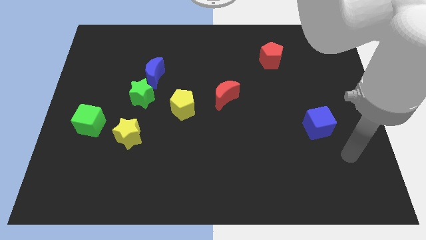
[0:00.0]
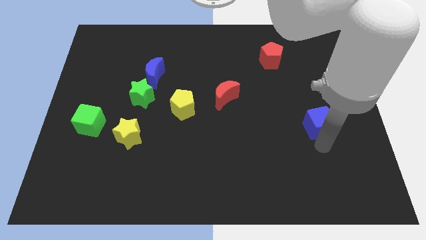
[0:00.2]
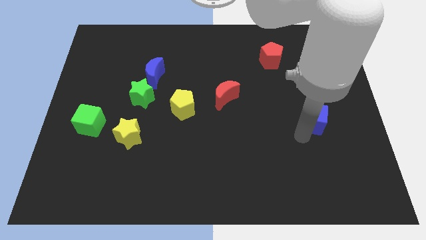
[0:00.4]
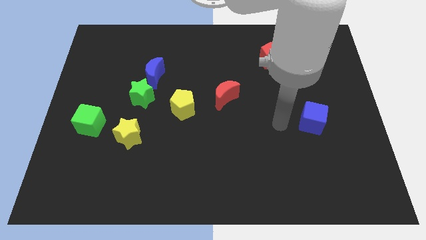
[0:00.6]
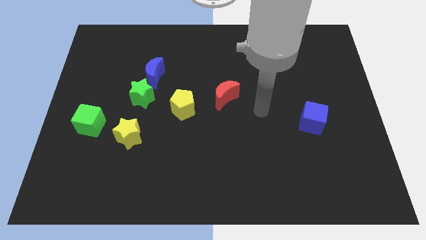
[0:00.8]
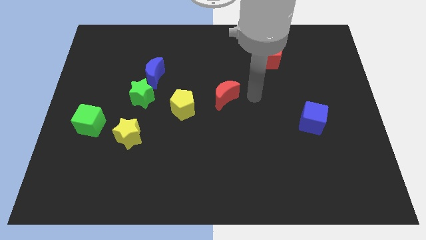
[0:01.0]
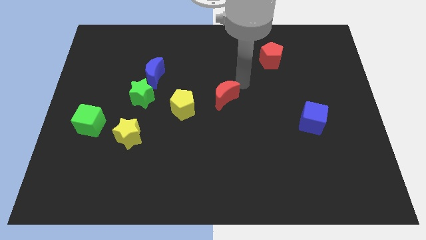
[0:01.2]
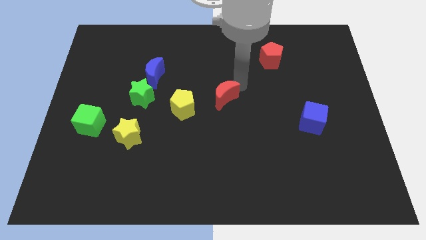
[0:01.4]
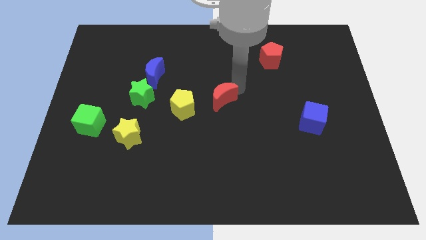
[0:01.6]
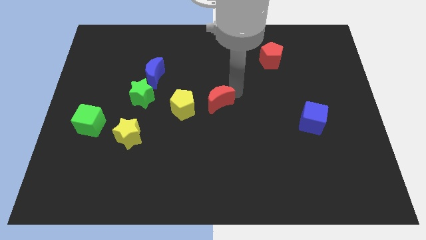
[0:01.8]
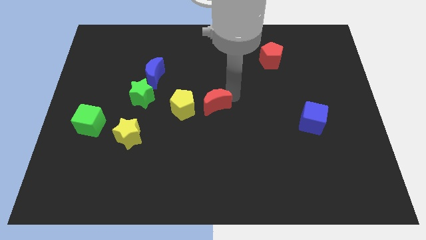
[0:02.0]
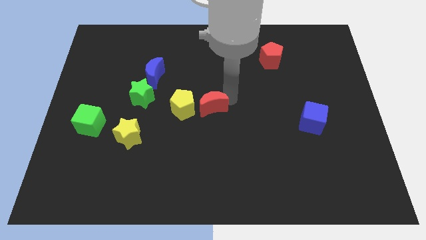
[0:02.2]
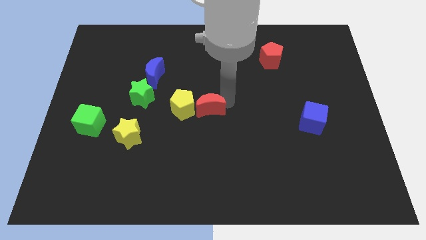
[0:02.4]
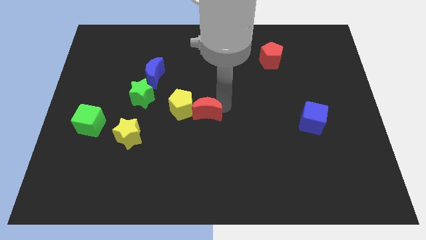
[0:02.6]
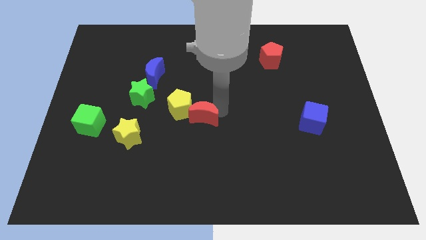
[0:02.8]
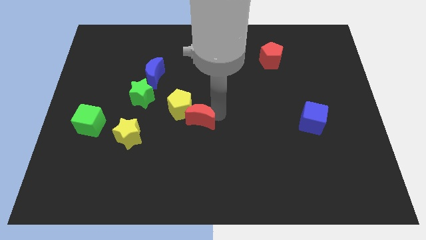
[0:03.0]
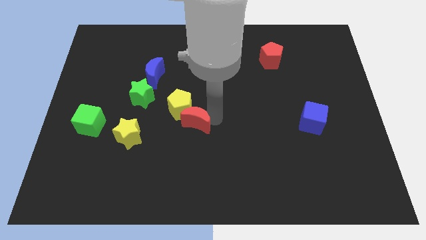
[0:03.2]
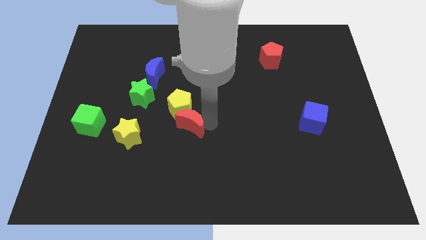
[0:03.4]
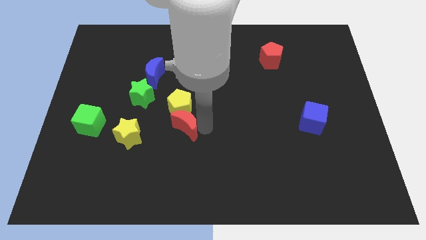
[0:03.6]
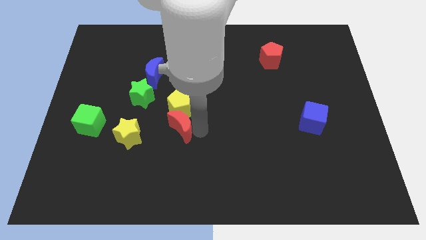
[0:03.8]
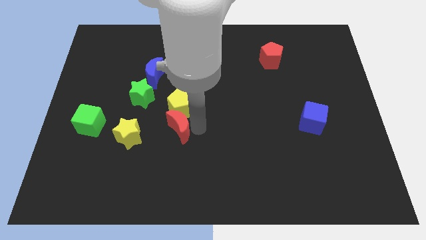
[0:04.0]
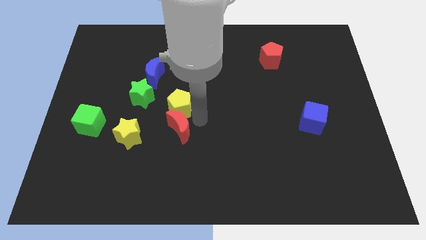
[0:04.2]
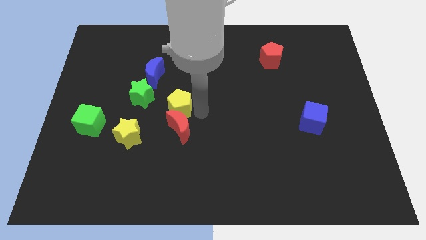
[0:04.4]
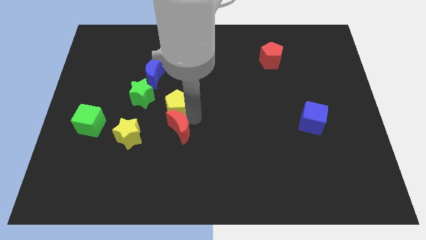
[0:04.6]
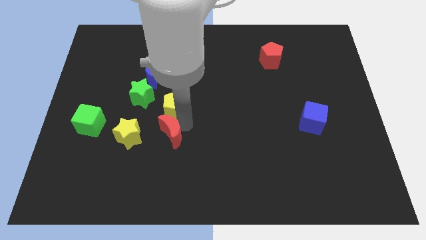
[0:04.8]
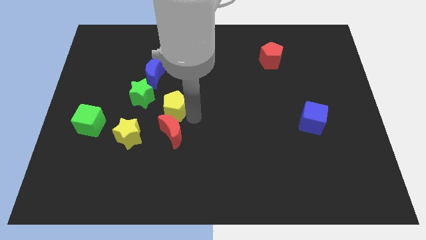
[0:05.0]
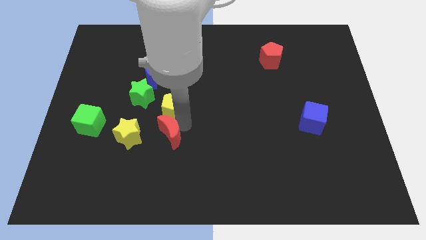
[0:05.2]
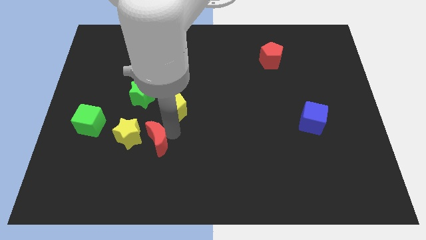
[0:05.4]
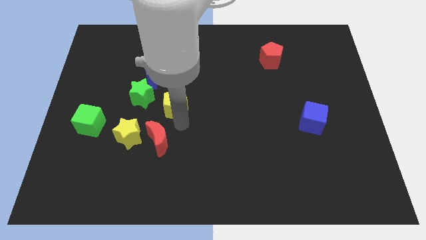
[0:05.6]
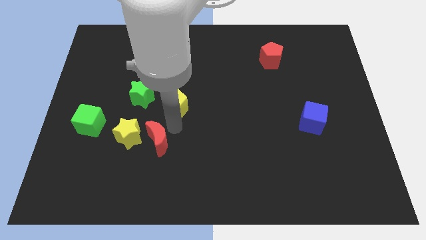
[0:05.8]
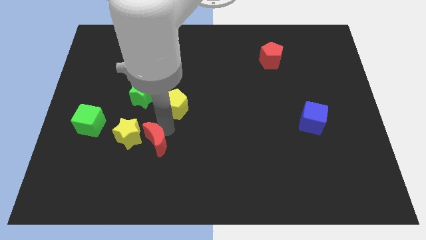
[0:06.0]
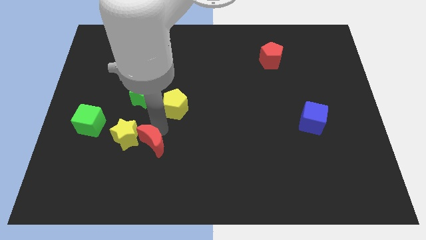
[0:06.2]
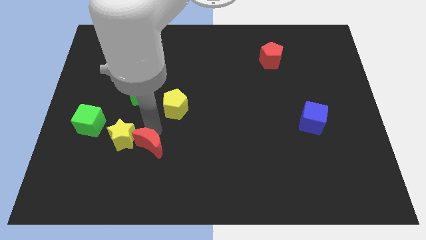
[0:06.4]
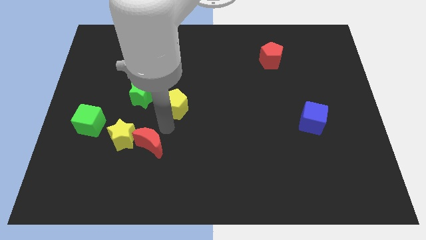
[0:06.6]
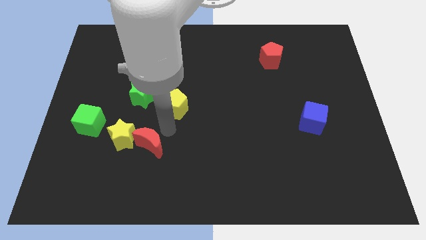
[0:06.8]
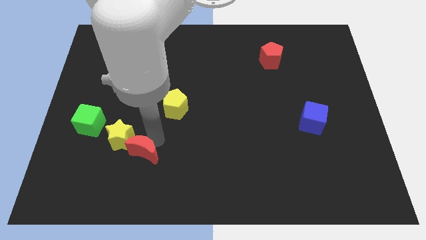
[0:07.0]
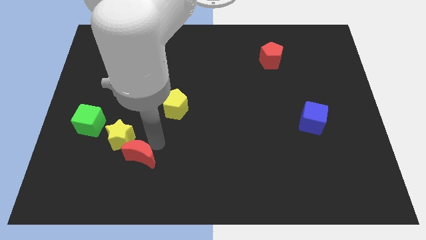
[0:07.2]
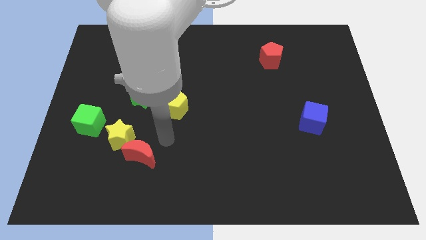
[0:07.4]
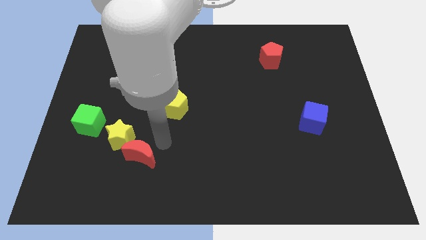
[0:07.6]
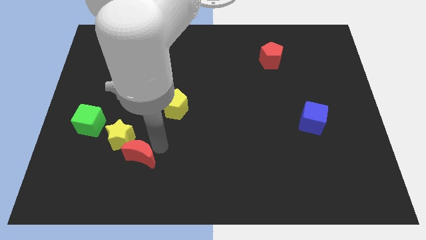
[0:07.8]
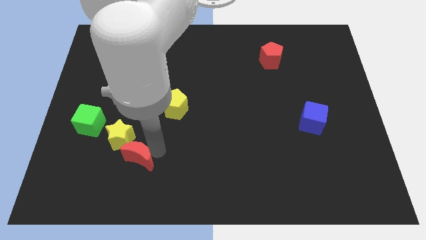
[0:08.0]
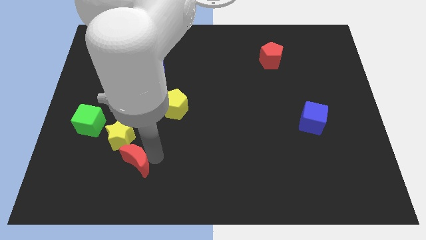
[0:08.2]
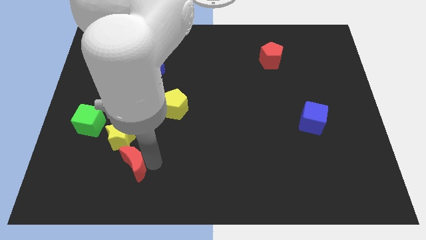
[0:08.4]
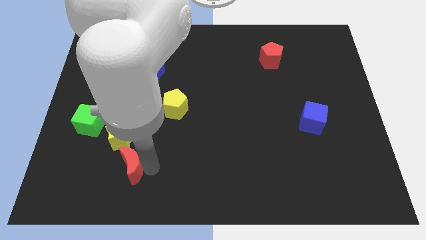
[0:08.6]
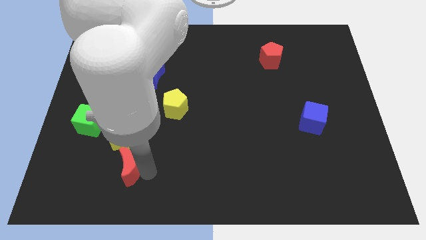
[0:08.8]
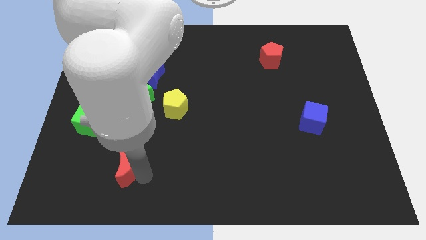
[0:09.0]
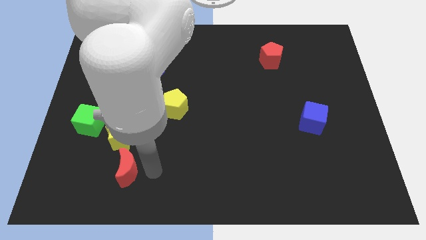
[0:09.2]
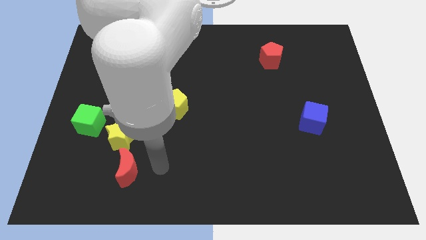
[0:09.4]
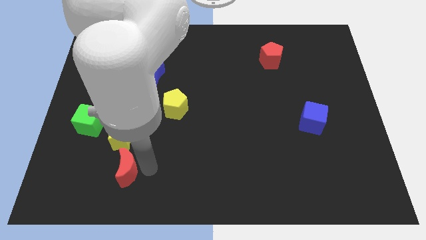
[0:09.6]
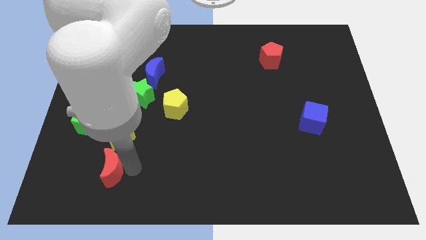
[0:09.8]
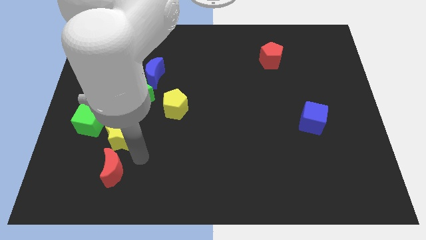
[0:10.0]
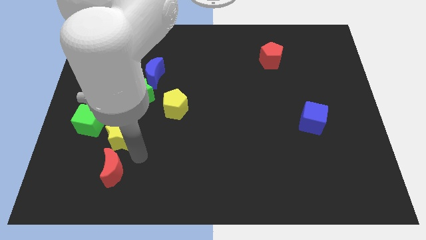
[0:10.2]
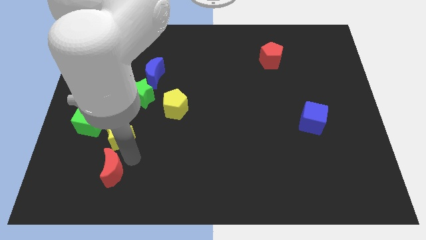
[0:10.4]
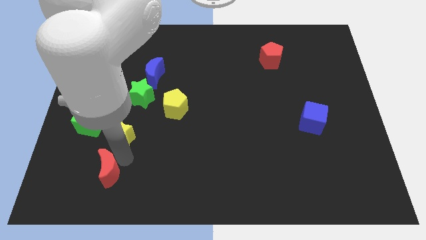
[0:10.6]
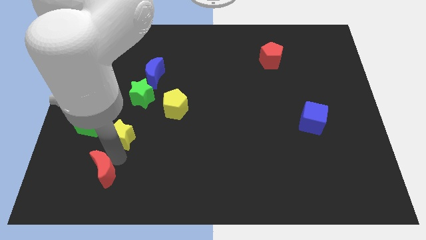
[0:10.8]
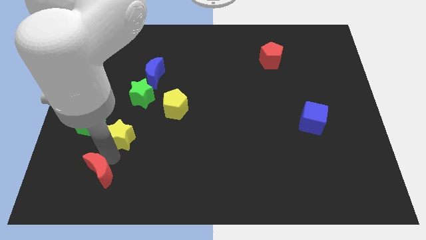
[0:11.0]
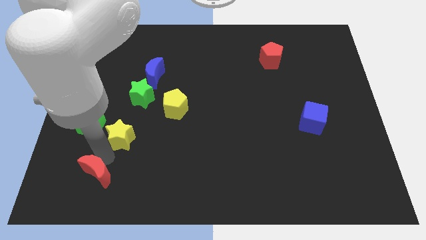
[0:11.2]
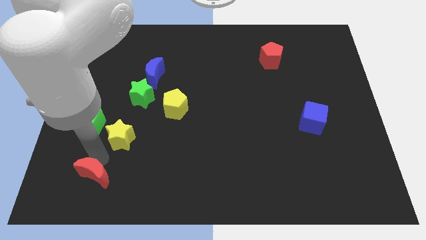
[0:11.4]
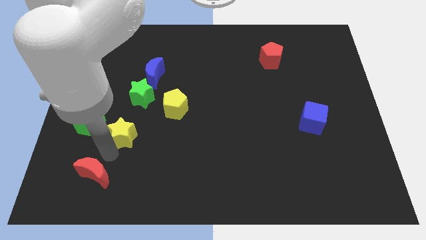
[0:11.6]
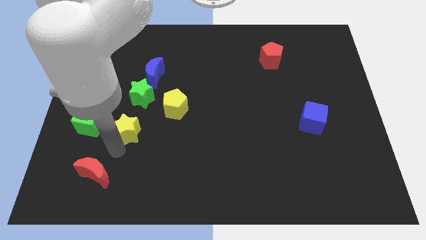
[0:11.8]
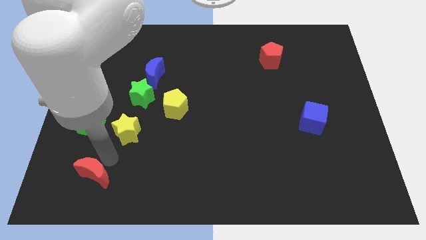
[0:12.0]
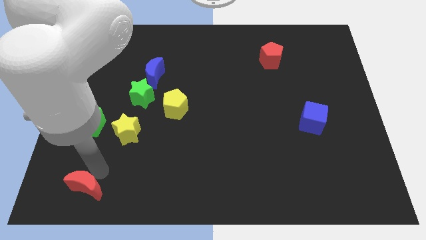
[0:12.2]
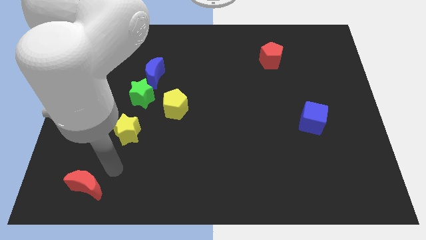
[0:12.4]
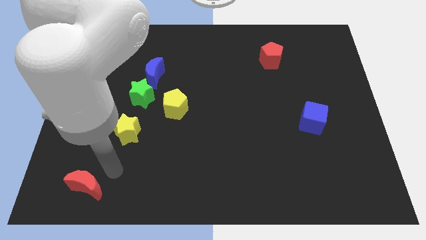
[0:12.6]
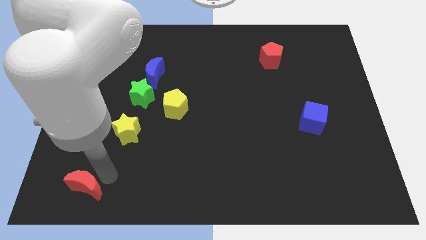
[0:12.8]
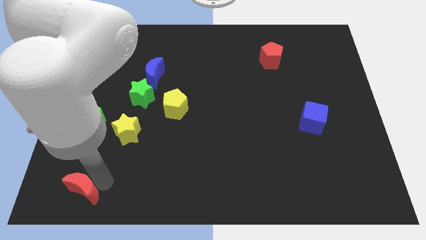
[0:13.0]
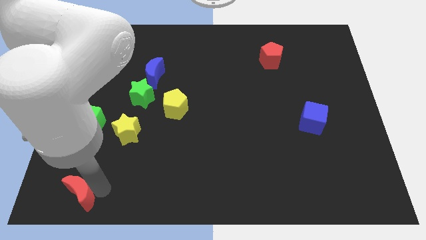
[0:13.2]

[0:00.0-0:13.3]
slide the red moon to the bottom left of the board
